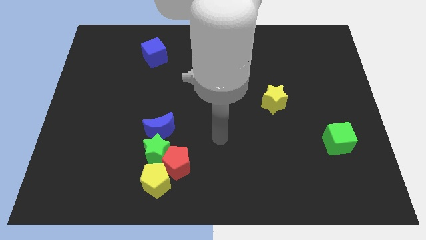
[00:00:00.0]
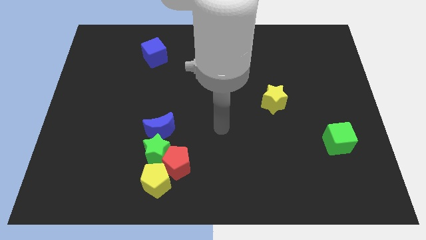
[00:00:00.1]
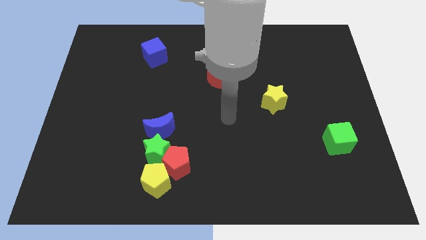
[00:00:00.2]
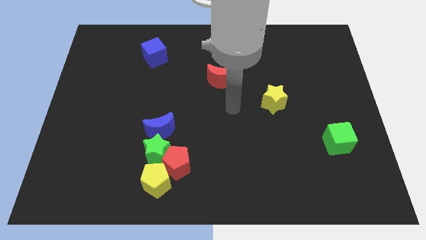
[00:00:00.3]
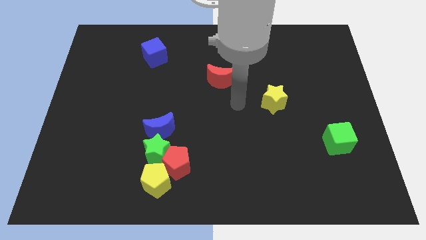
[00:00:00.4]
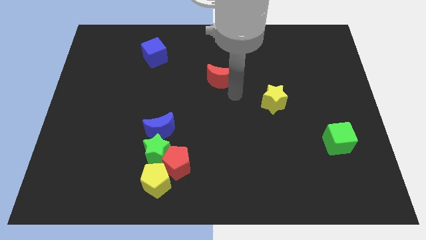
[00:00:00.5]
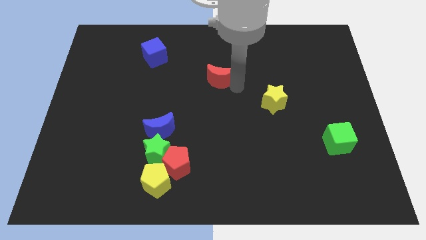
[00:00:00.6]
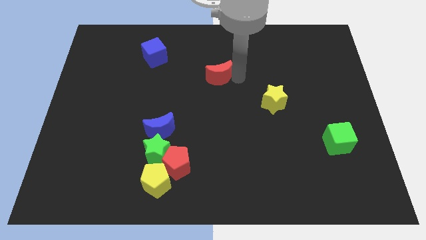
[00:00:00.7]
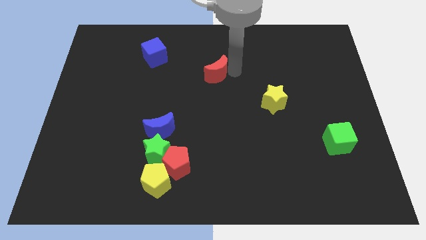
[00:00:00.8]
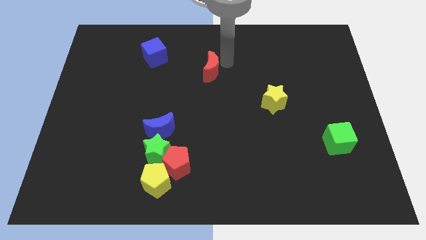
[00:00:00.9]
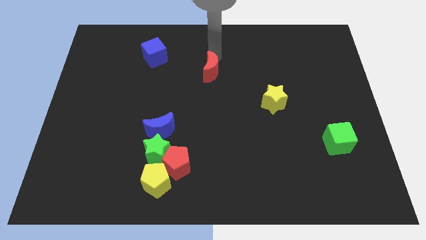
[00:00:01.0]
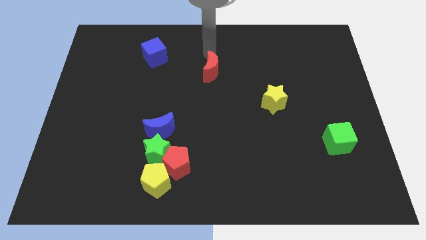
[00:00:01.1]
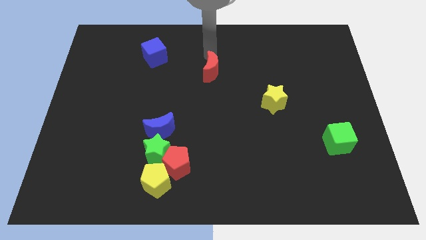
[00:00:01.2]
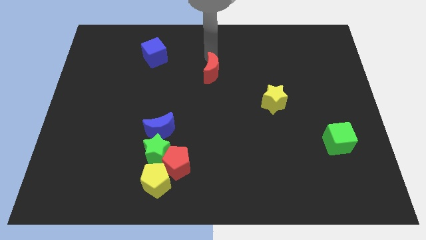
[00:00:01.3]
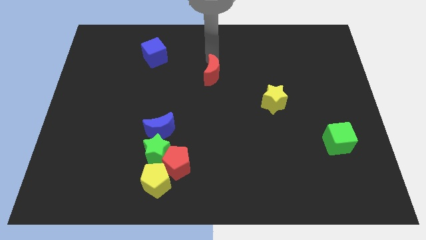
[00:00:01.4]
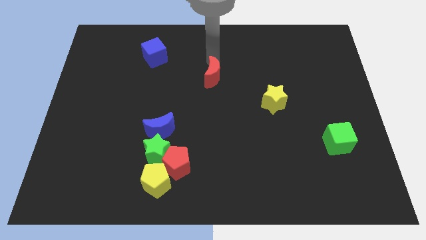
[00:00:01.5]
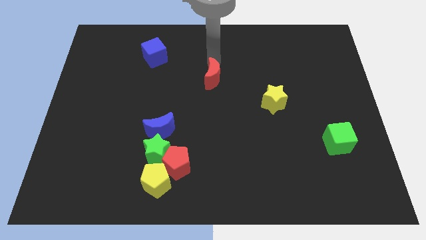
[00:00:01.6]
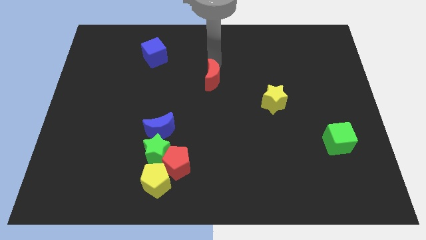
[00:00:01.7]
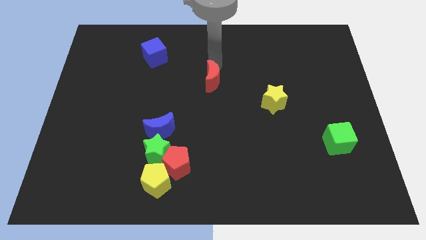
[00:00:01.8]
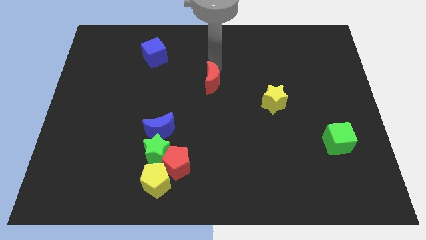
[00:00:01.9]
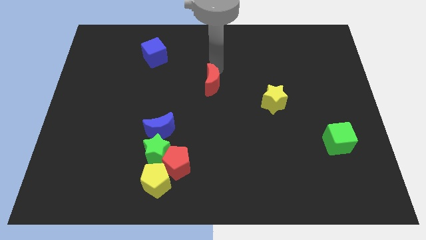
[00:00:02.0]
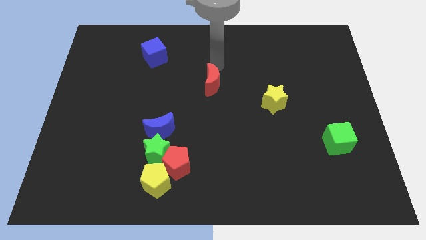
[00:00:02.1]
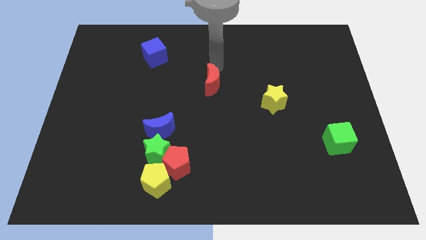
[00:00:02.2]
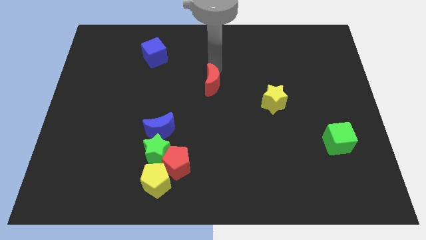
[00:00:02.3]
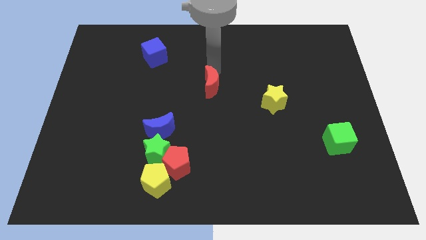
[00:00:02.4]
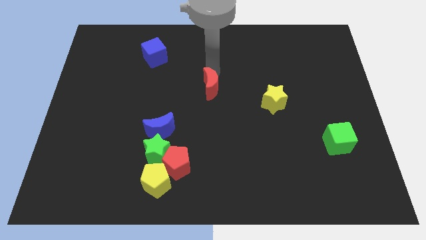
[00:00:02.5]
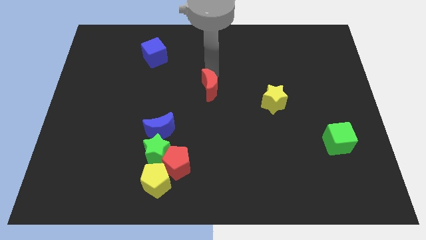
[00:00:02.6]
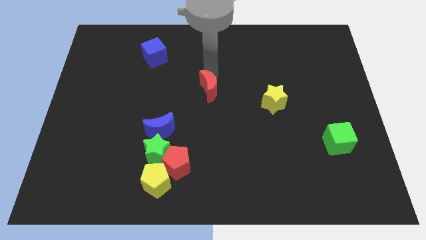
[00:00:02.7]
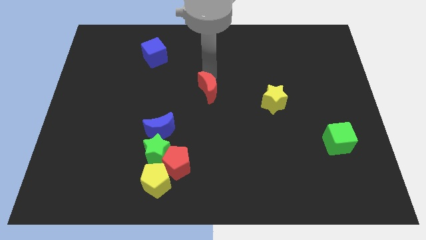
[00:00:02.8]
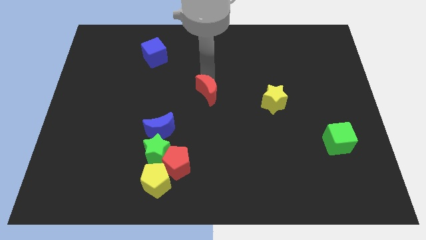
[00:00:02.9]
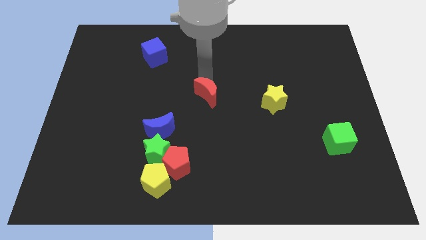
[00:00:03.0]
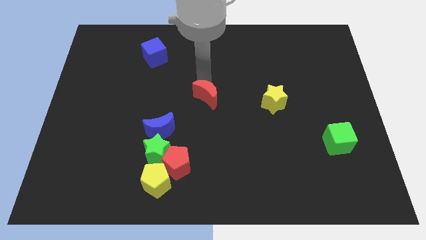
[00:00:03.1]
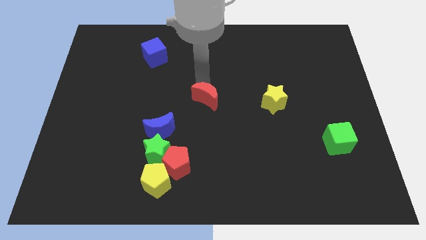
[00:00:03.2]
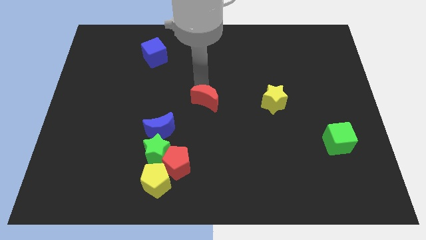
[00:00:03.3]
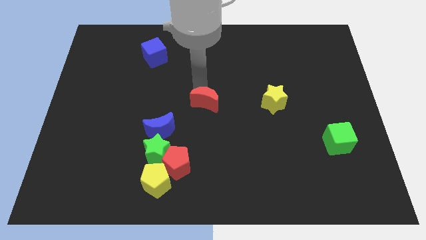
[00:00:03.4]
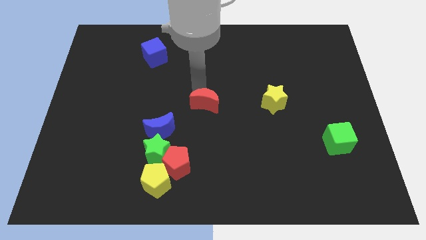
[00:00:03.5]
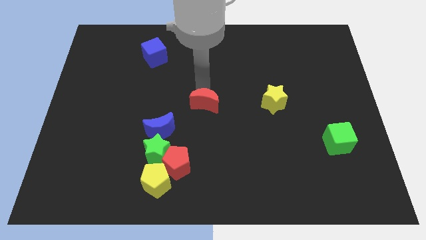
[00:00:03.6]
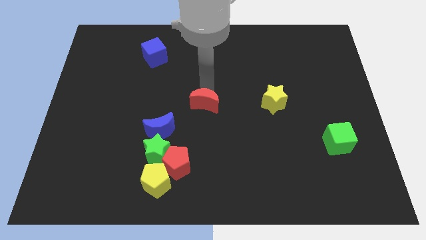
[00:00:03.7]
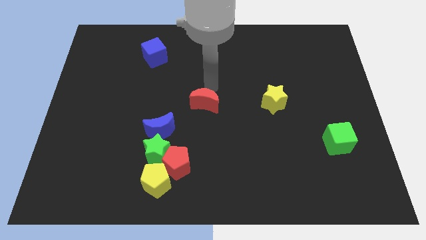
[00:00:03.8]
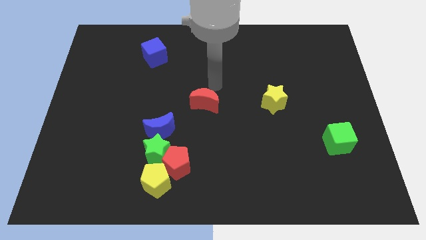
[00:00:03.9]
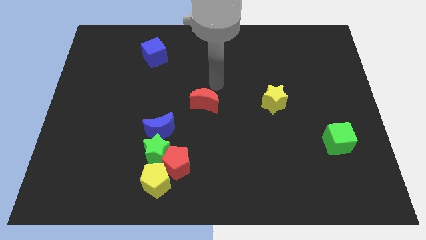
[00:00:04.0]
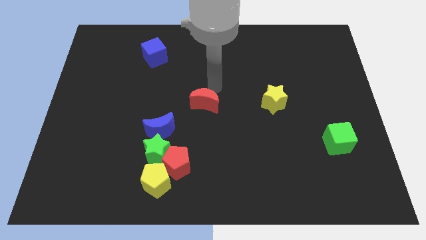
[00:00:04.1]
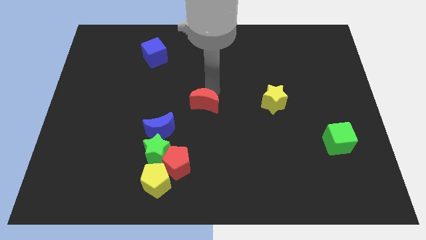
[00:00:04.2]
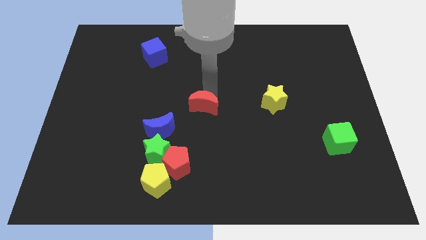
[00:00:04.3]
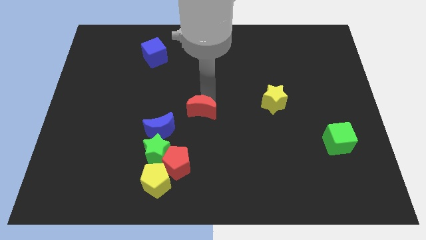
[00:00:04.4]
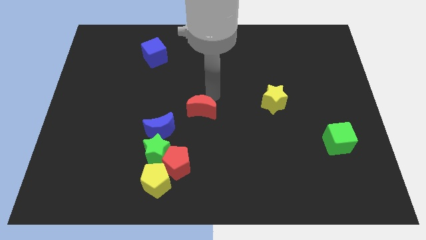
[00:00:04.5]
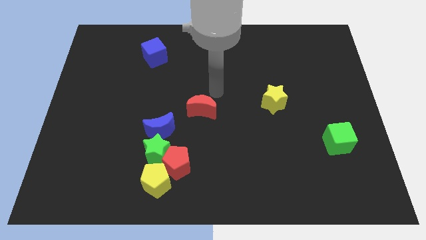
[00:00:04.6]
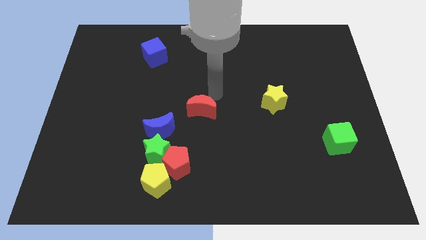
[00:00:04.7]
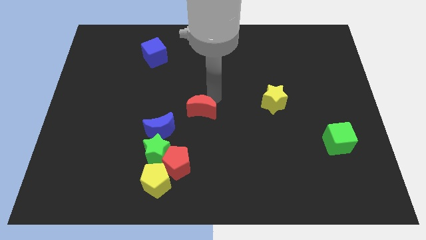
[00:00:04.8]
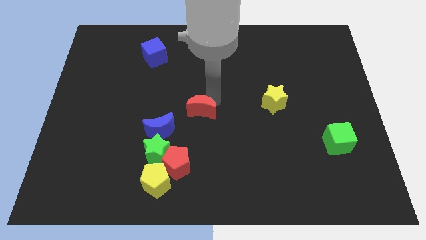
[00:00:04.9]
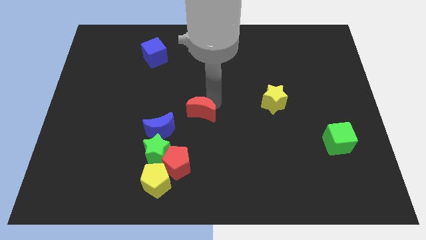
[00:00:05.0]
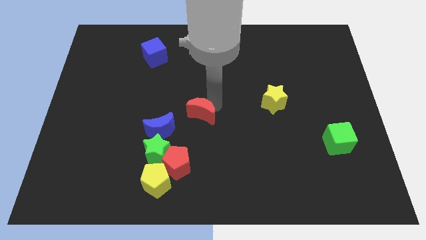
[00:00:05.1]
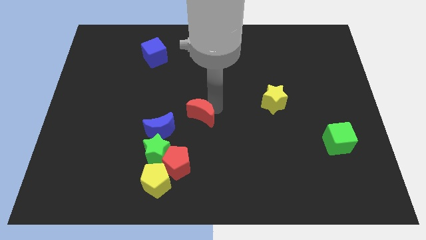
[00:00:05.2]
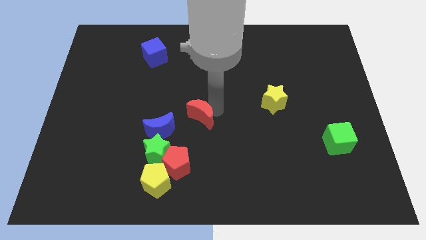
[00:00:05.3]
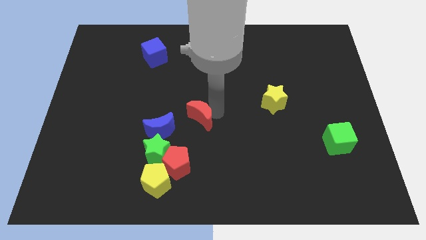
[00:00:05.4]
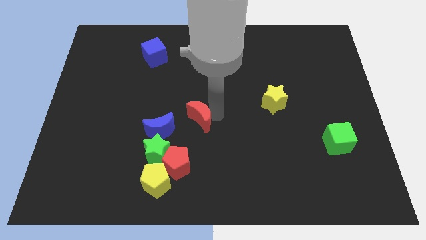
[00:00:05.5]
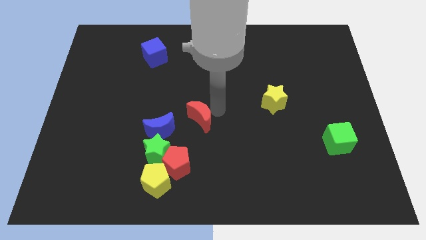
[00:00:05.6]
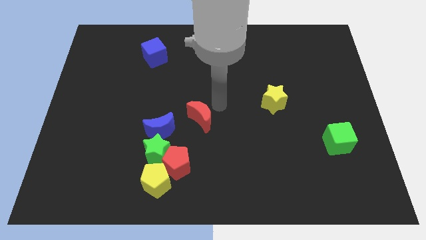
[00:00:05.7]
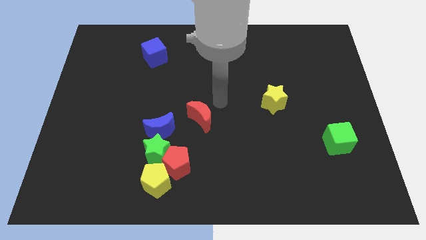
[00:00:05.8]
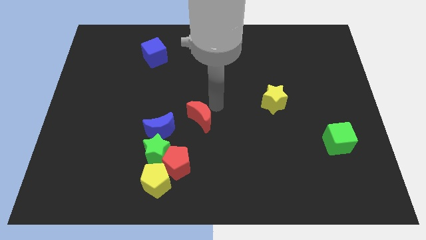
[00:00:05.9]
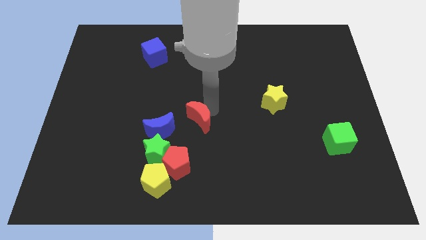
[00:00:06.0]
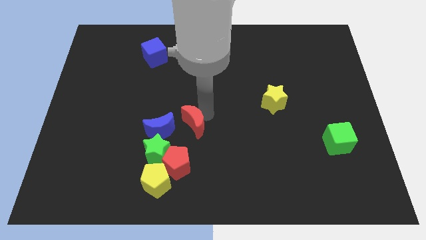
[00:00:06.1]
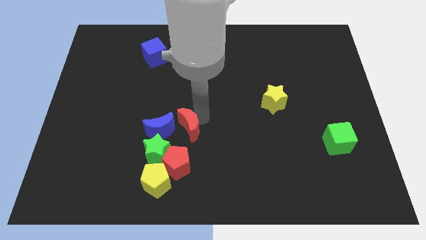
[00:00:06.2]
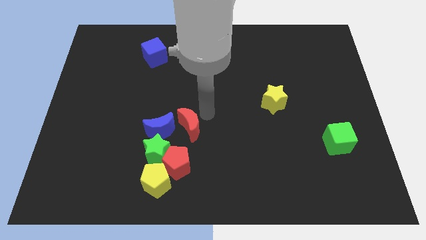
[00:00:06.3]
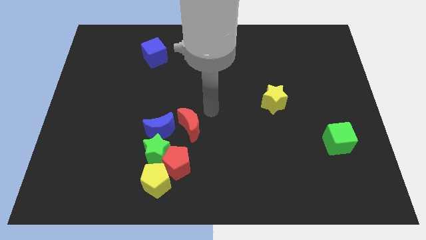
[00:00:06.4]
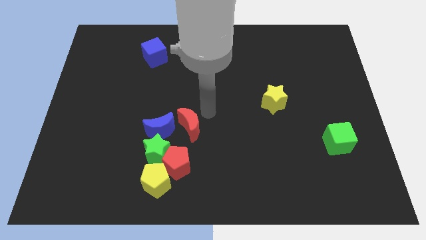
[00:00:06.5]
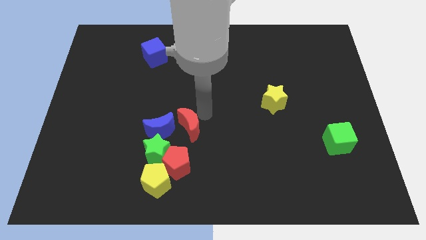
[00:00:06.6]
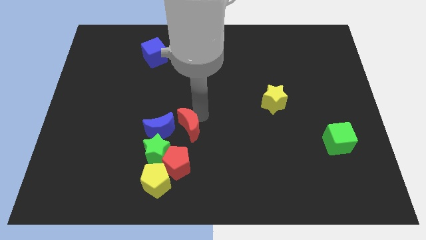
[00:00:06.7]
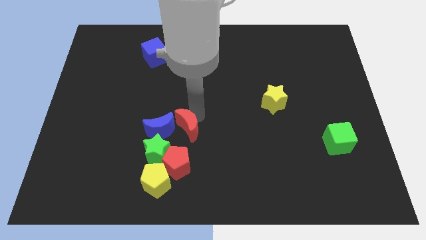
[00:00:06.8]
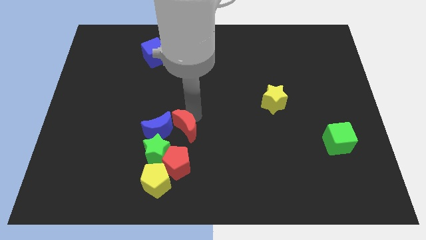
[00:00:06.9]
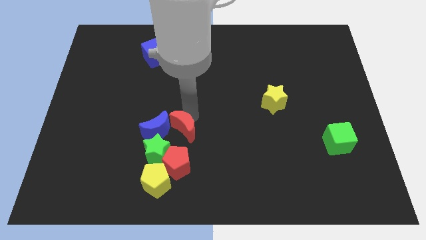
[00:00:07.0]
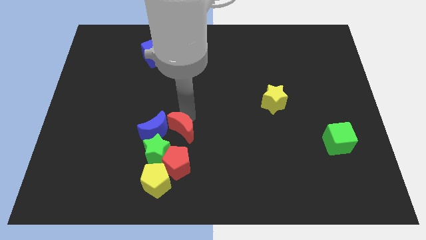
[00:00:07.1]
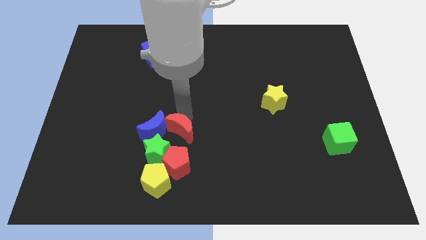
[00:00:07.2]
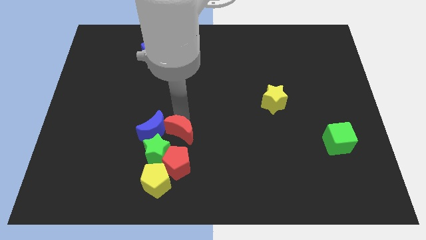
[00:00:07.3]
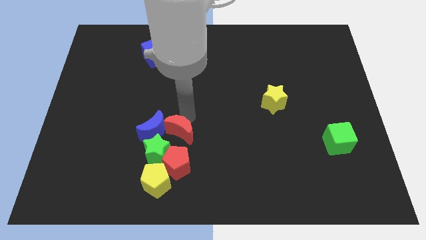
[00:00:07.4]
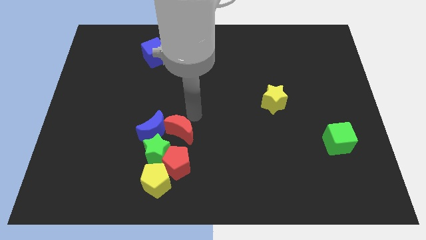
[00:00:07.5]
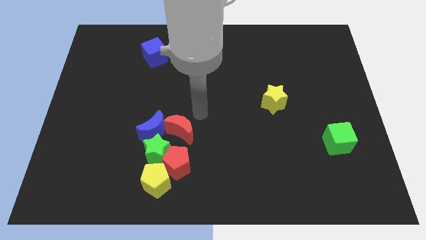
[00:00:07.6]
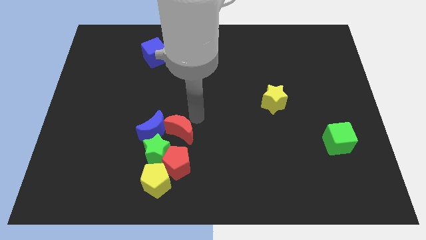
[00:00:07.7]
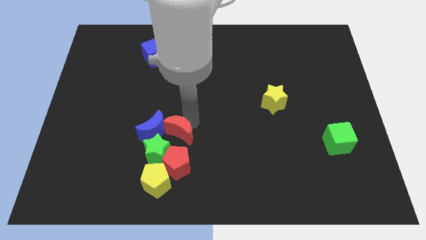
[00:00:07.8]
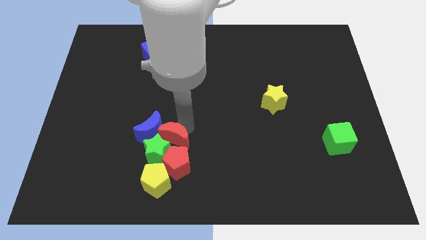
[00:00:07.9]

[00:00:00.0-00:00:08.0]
move the red moon towards the green star

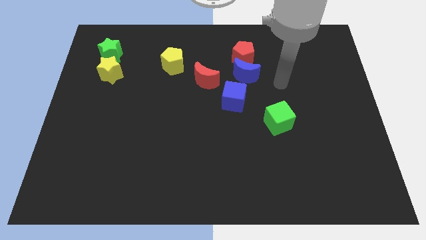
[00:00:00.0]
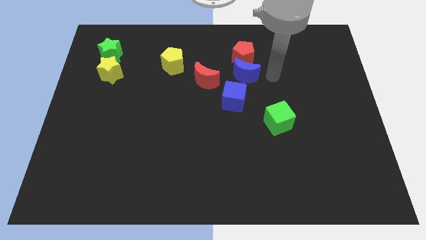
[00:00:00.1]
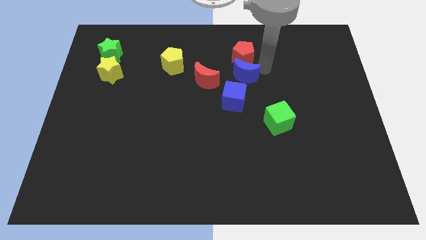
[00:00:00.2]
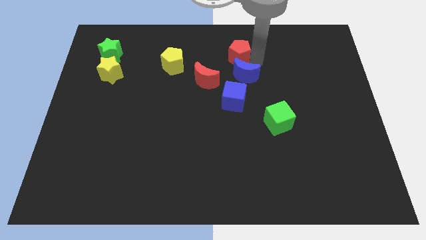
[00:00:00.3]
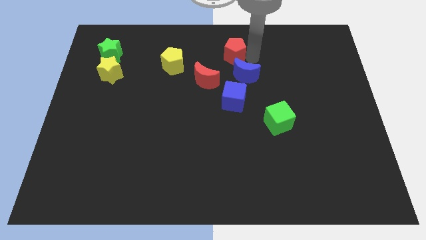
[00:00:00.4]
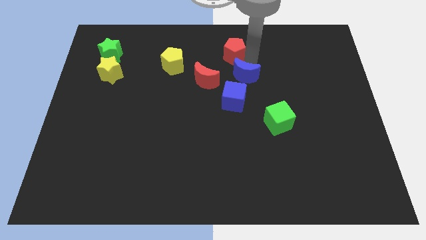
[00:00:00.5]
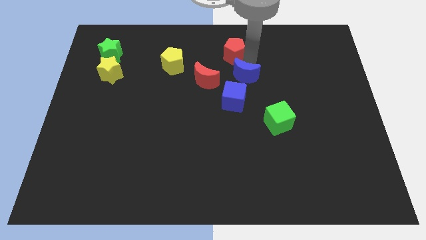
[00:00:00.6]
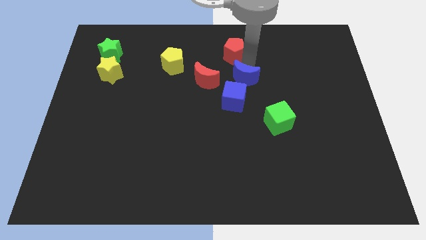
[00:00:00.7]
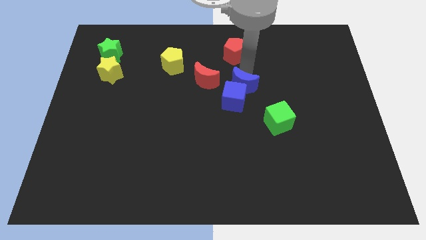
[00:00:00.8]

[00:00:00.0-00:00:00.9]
put the blue moon next to the blue cube
